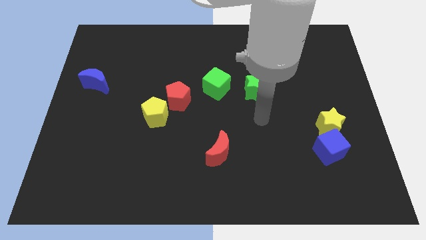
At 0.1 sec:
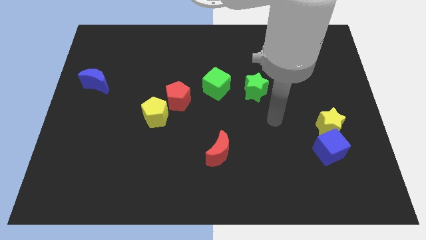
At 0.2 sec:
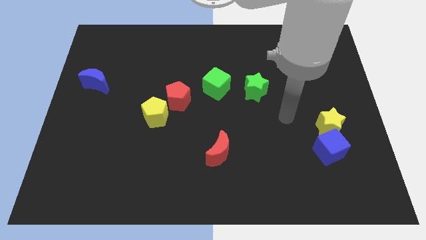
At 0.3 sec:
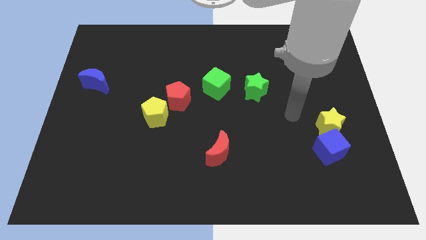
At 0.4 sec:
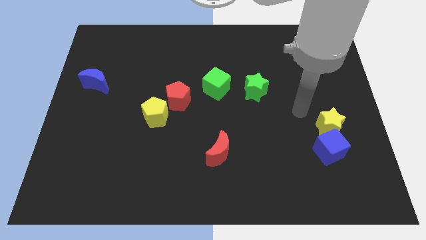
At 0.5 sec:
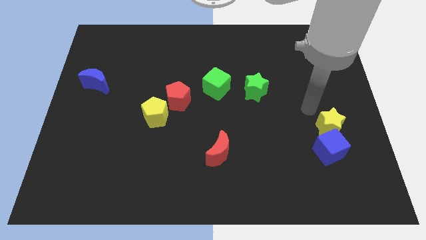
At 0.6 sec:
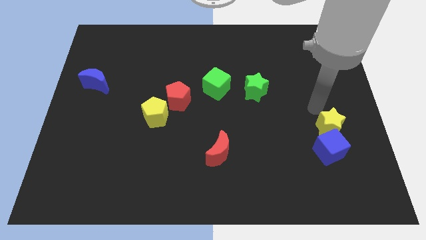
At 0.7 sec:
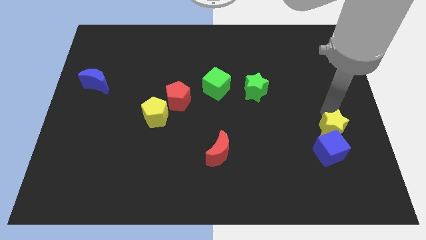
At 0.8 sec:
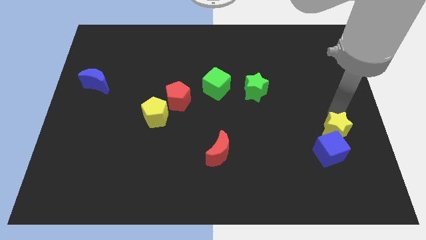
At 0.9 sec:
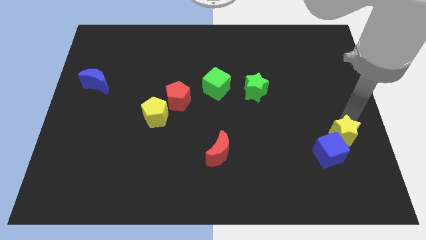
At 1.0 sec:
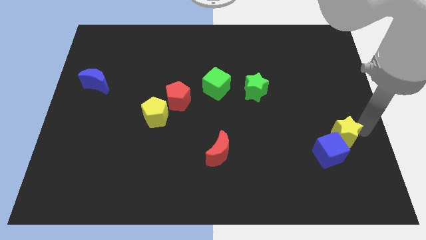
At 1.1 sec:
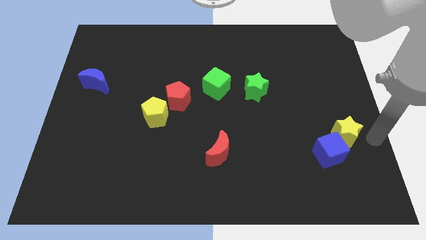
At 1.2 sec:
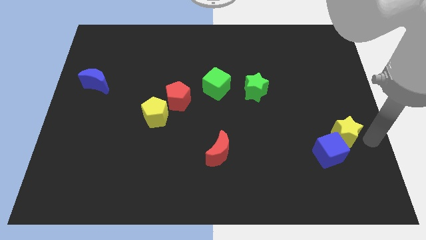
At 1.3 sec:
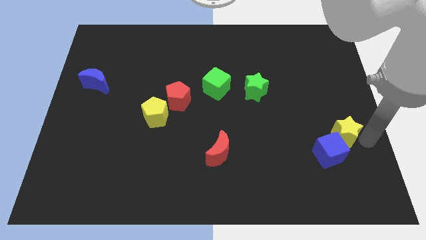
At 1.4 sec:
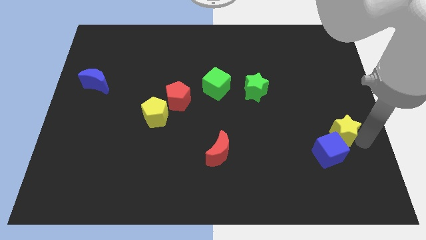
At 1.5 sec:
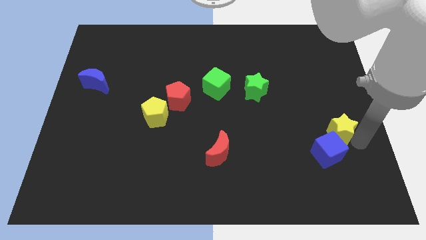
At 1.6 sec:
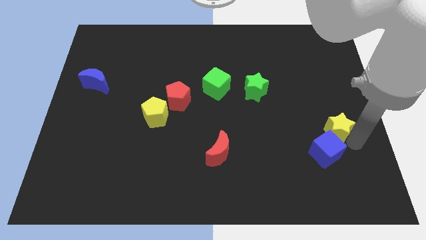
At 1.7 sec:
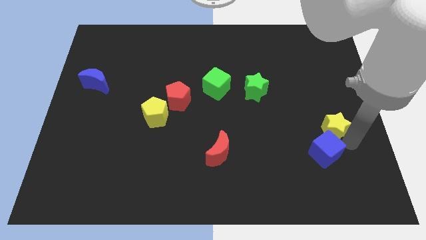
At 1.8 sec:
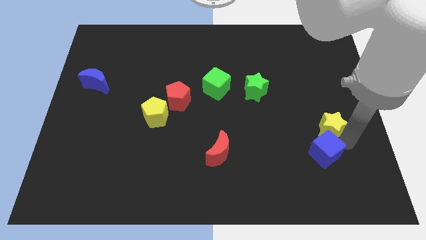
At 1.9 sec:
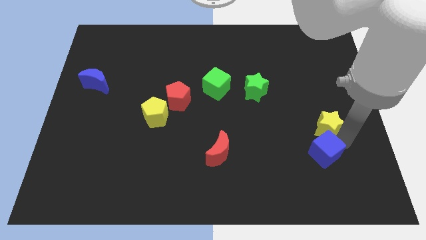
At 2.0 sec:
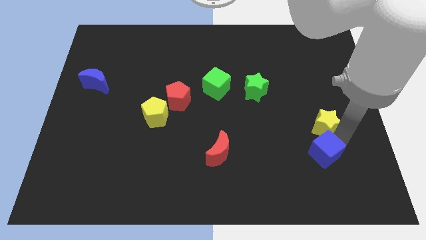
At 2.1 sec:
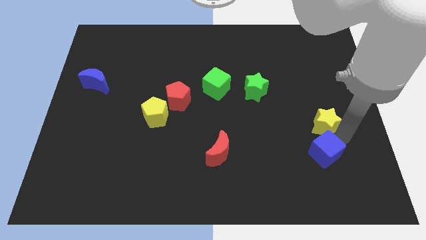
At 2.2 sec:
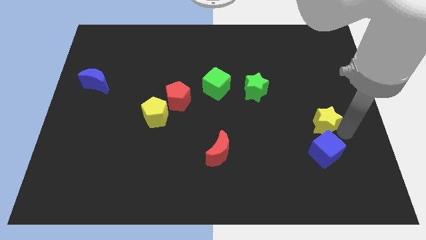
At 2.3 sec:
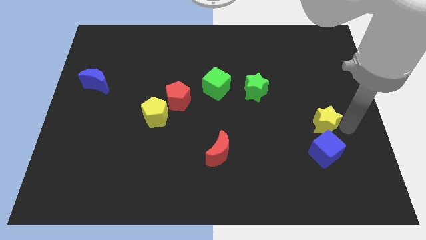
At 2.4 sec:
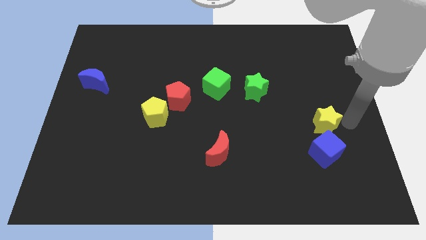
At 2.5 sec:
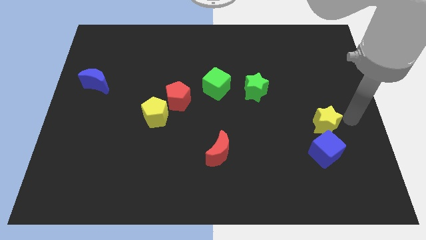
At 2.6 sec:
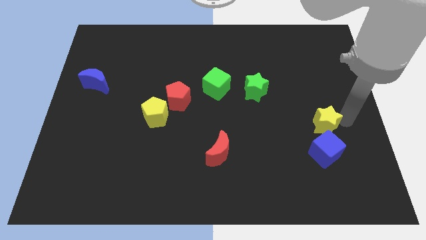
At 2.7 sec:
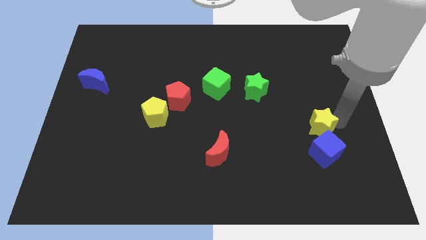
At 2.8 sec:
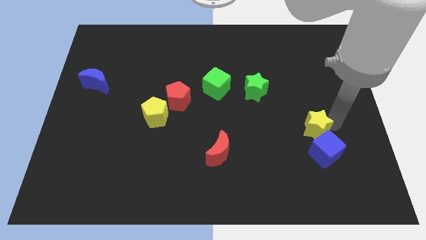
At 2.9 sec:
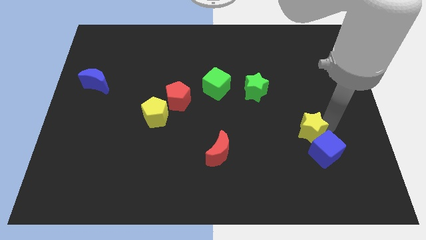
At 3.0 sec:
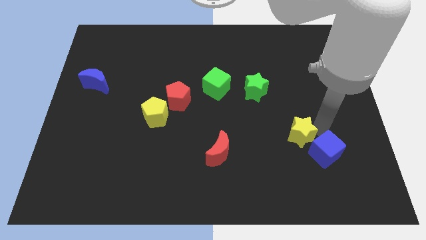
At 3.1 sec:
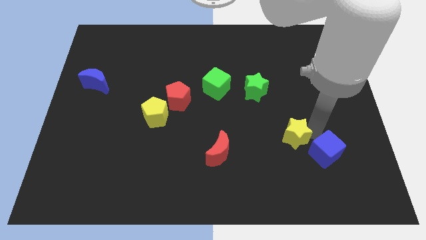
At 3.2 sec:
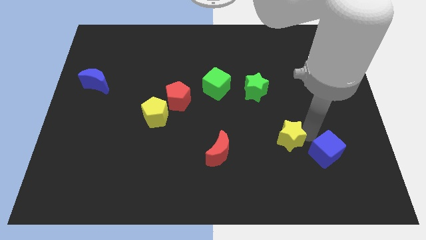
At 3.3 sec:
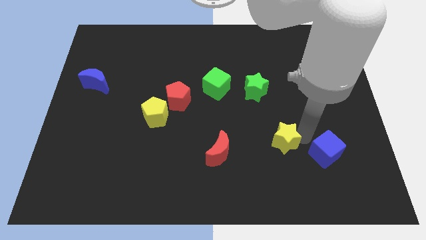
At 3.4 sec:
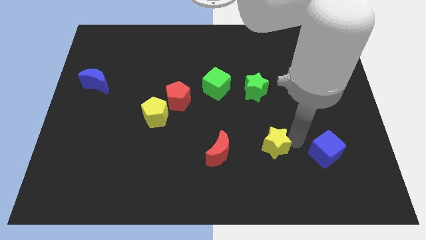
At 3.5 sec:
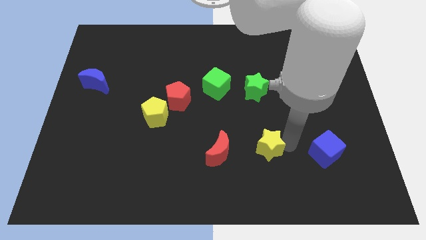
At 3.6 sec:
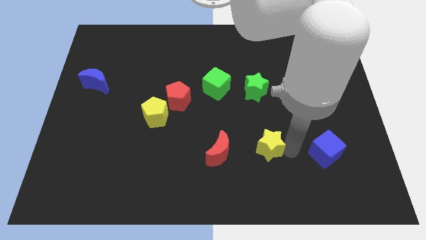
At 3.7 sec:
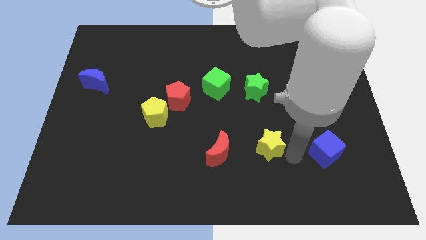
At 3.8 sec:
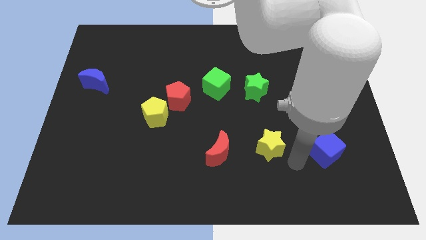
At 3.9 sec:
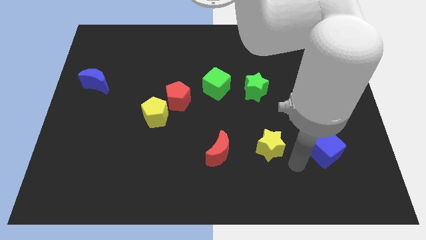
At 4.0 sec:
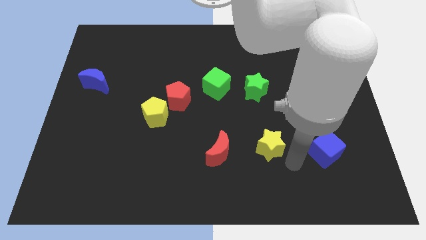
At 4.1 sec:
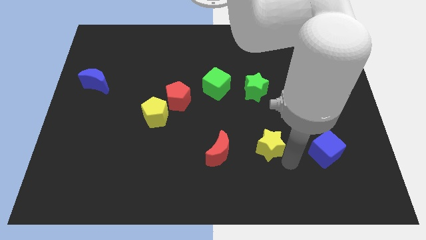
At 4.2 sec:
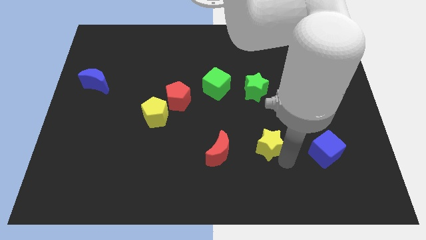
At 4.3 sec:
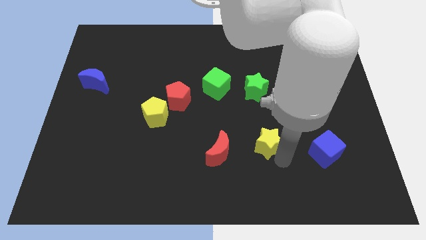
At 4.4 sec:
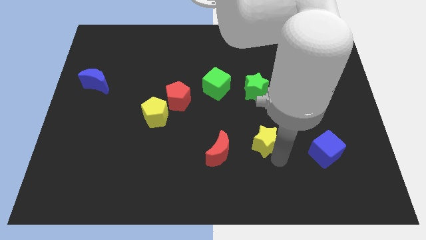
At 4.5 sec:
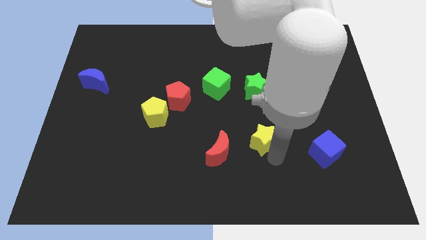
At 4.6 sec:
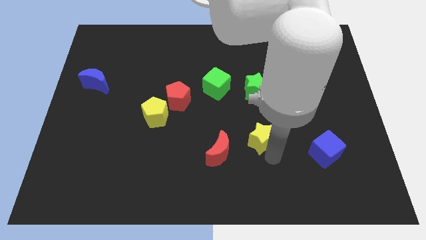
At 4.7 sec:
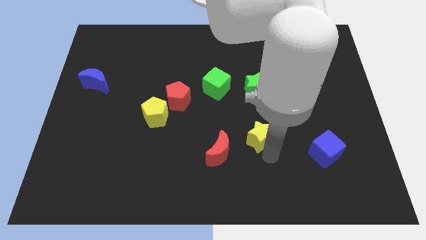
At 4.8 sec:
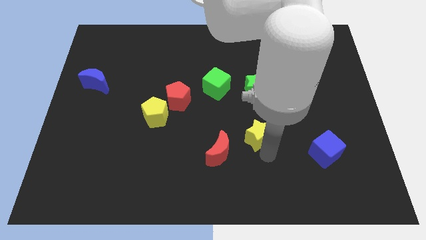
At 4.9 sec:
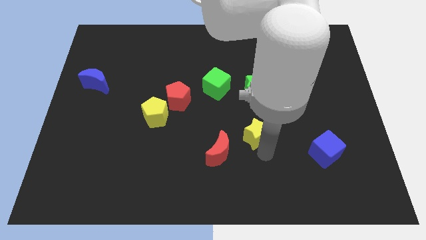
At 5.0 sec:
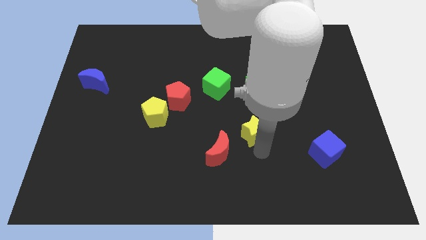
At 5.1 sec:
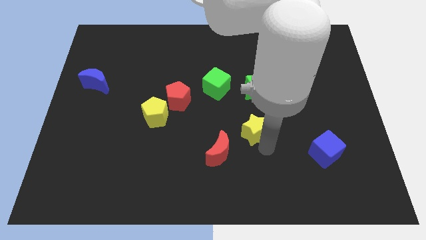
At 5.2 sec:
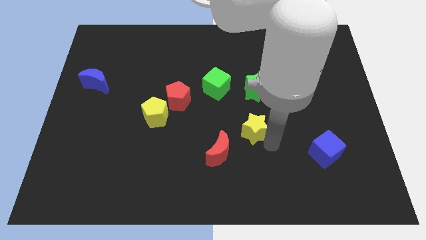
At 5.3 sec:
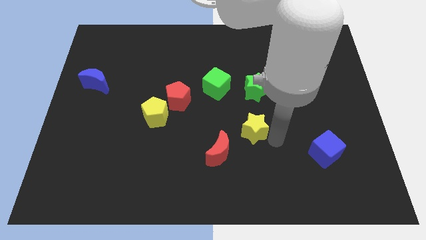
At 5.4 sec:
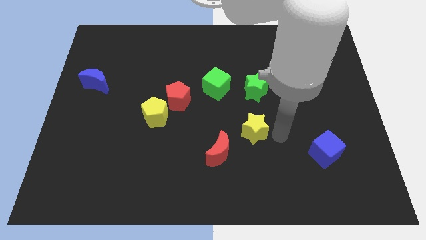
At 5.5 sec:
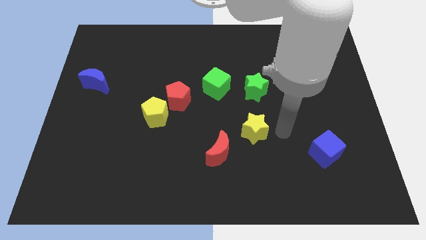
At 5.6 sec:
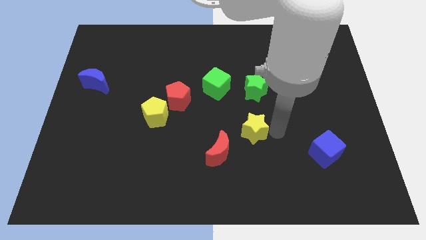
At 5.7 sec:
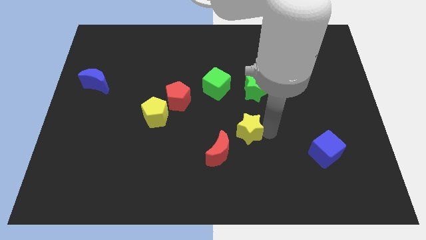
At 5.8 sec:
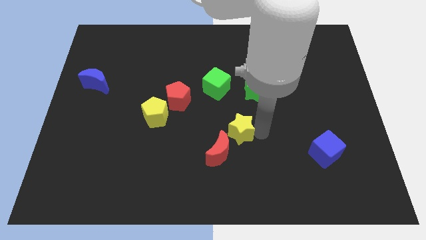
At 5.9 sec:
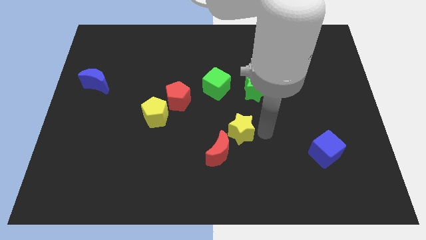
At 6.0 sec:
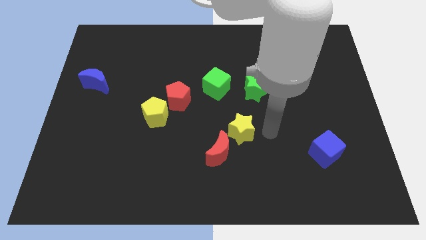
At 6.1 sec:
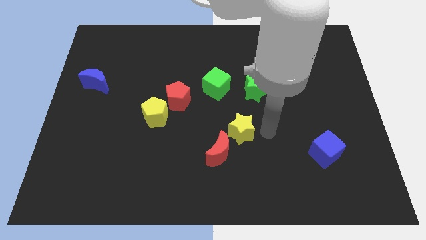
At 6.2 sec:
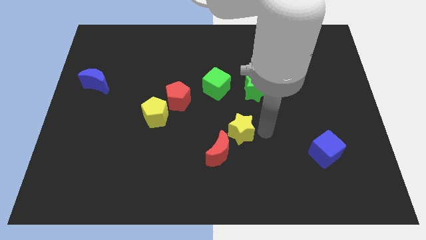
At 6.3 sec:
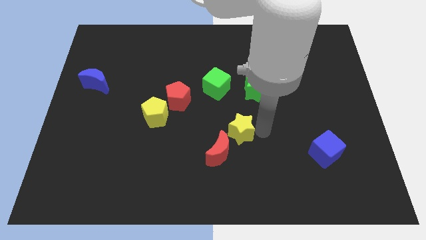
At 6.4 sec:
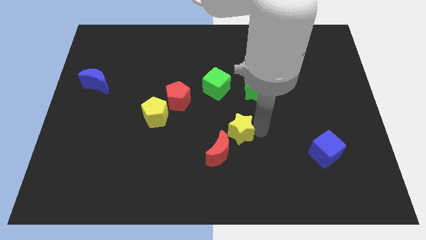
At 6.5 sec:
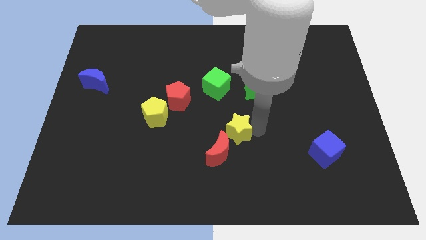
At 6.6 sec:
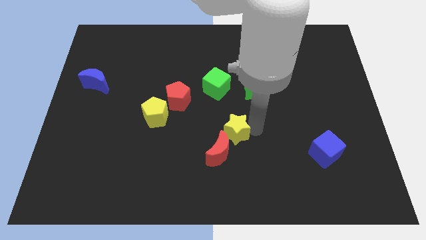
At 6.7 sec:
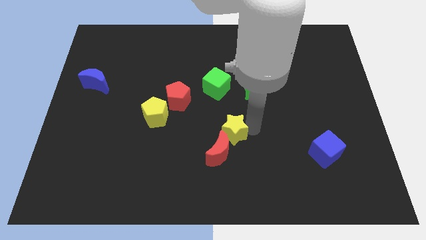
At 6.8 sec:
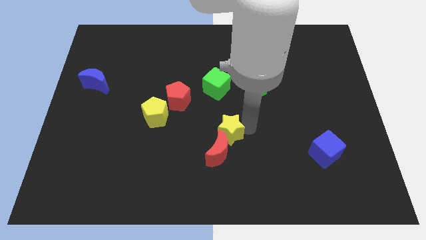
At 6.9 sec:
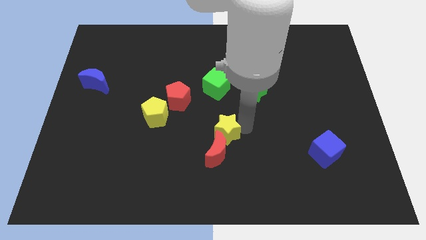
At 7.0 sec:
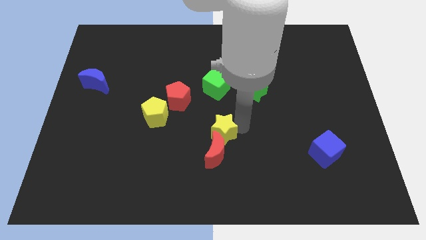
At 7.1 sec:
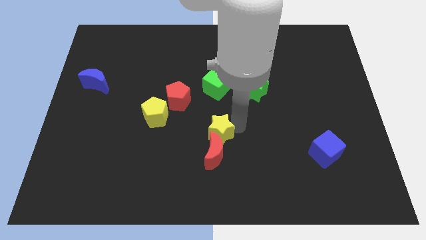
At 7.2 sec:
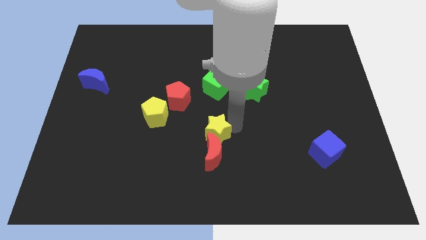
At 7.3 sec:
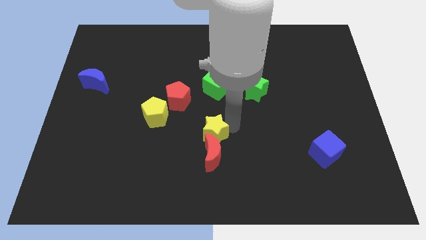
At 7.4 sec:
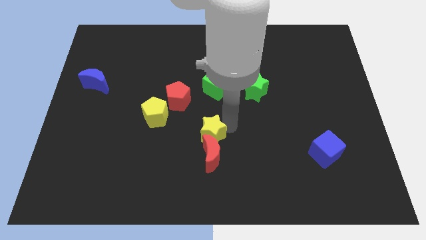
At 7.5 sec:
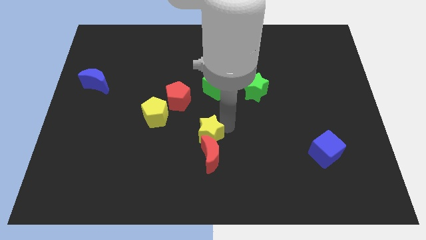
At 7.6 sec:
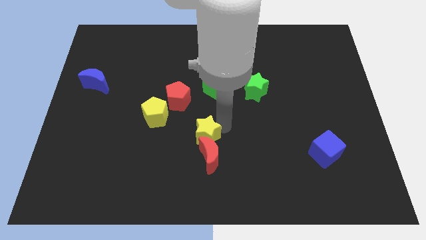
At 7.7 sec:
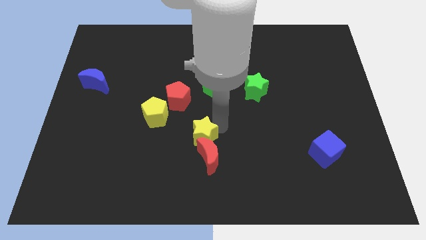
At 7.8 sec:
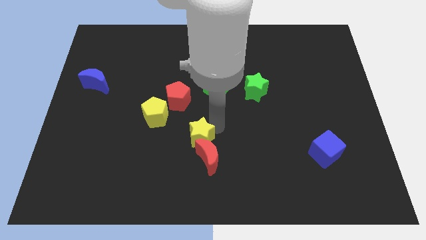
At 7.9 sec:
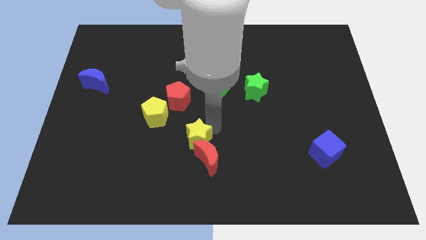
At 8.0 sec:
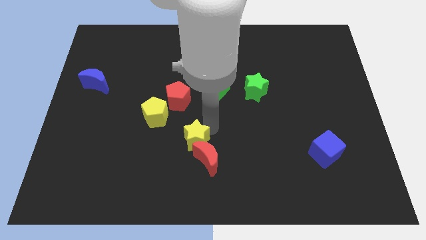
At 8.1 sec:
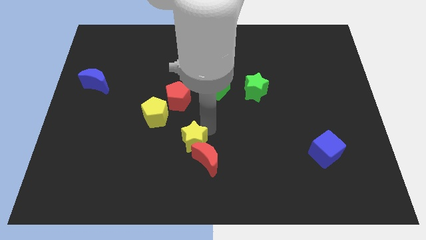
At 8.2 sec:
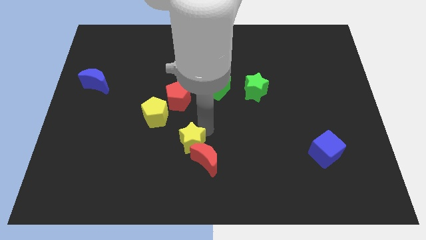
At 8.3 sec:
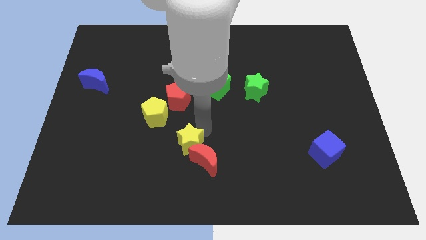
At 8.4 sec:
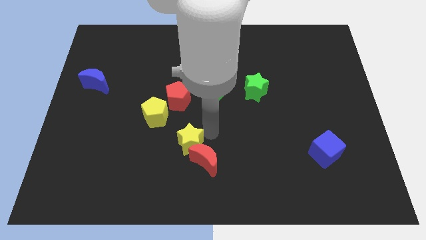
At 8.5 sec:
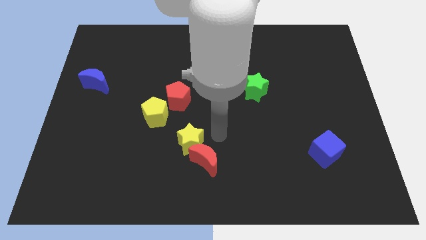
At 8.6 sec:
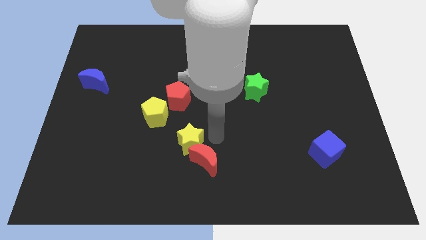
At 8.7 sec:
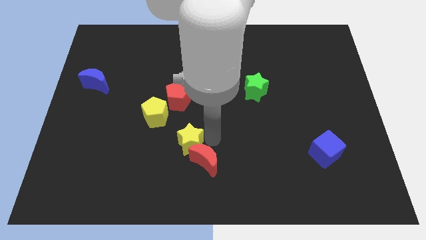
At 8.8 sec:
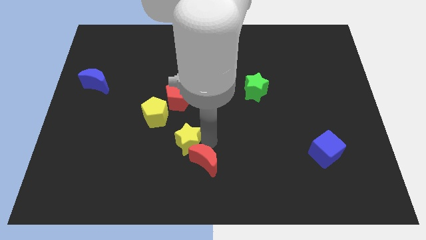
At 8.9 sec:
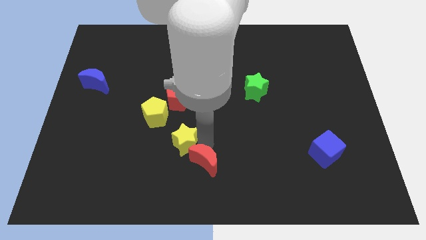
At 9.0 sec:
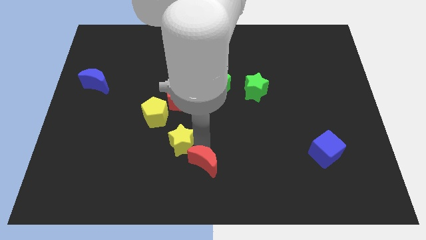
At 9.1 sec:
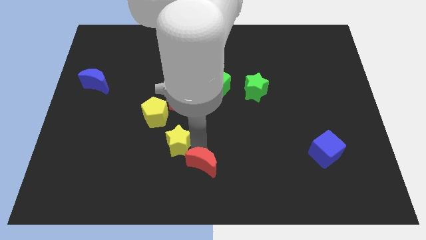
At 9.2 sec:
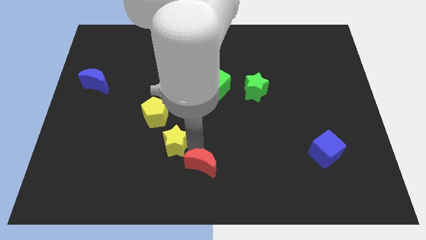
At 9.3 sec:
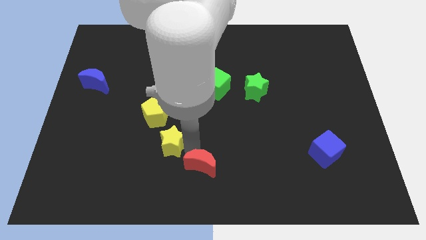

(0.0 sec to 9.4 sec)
put the yellow star below the yellow pentagon
